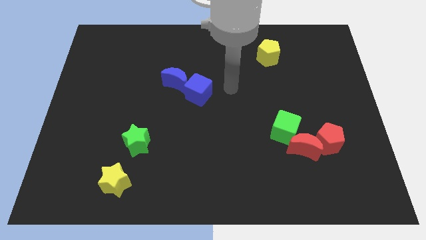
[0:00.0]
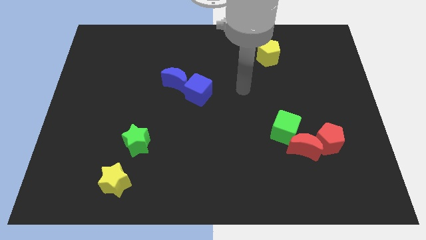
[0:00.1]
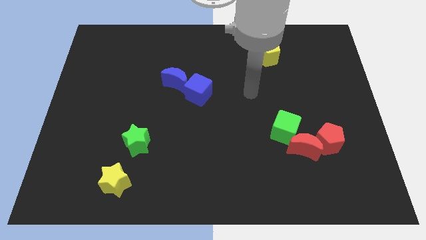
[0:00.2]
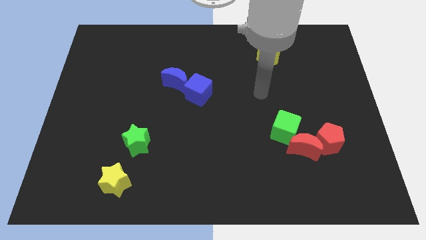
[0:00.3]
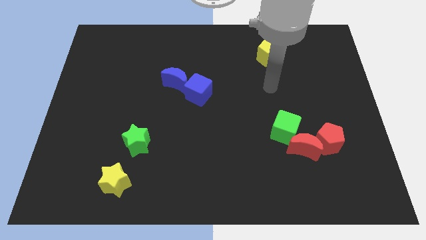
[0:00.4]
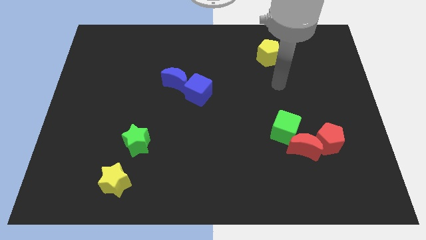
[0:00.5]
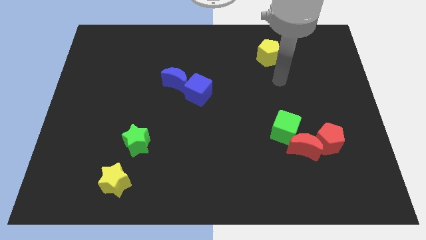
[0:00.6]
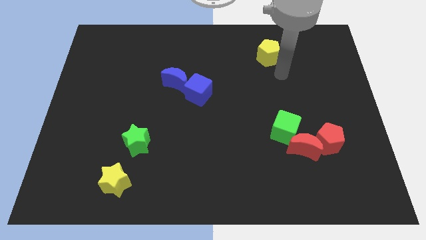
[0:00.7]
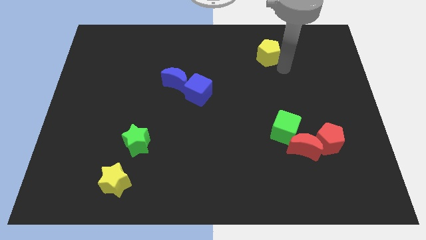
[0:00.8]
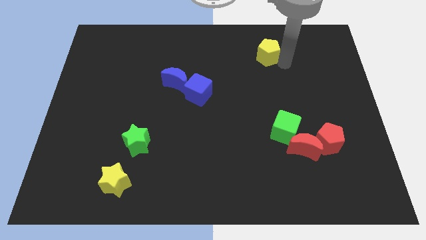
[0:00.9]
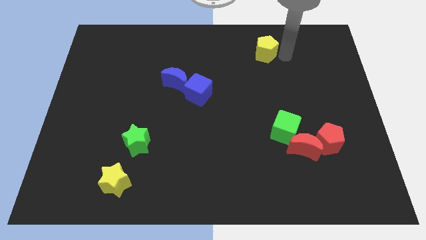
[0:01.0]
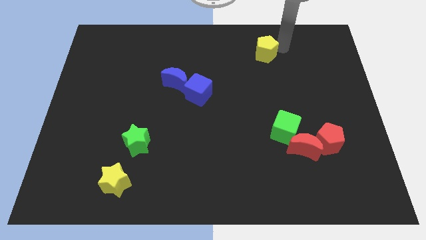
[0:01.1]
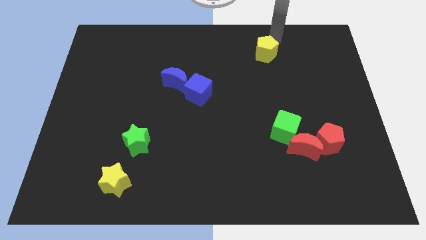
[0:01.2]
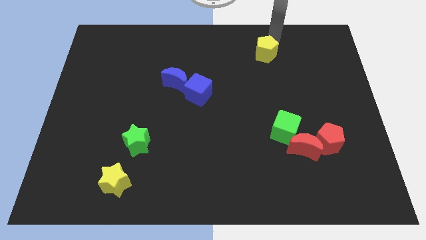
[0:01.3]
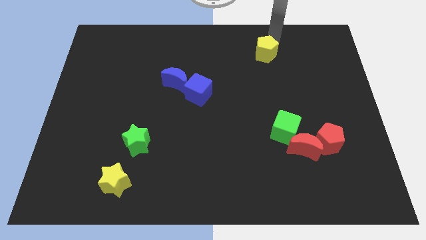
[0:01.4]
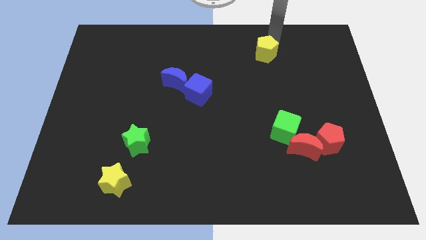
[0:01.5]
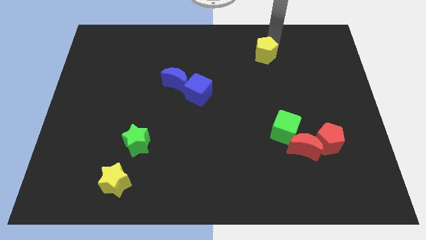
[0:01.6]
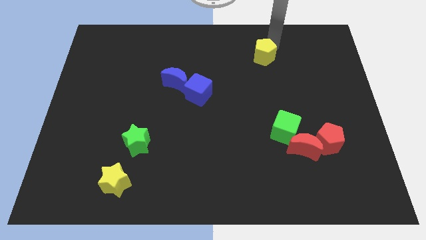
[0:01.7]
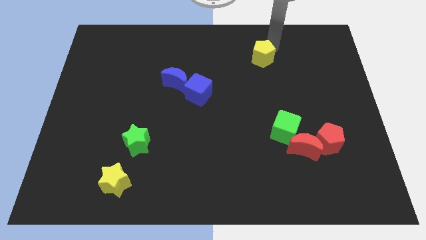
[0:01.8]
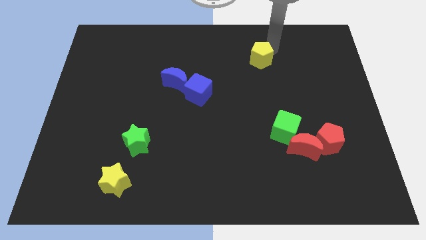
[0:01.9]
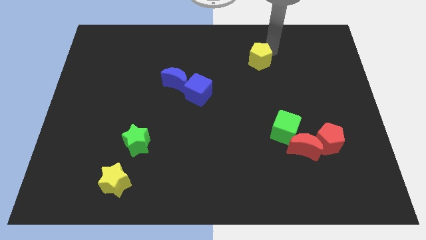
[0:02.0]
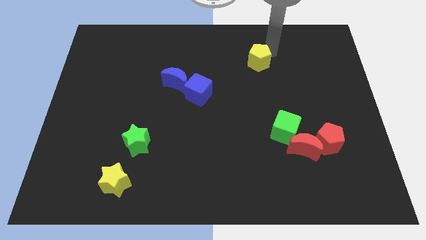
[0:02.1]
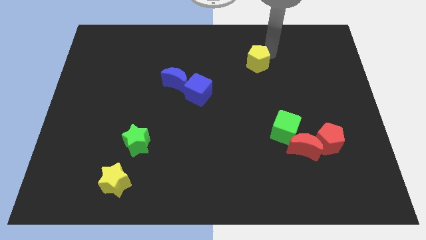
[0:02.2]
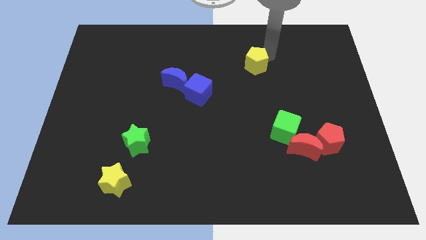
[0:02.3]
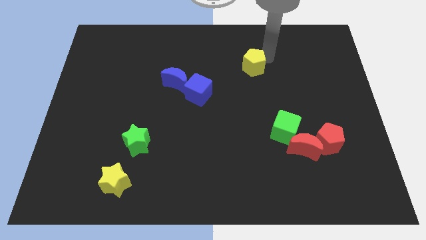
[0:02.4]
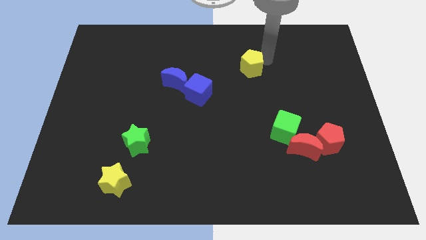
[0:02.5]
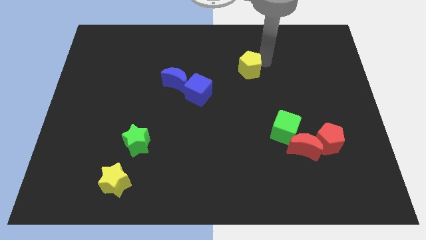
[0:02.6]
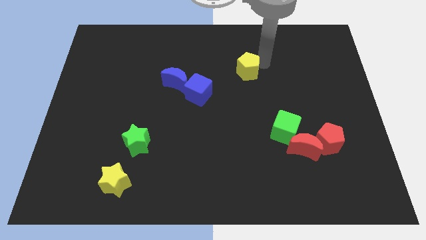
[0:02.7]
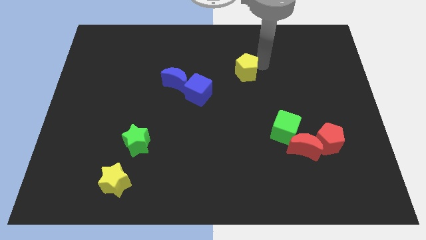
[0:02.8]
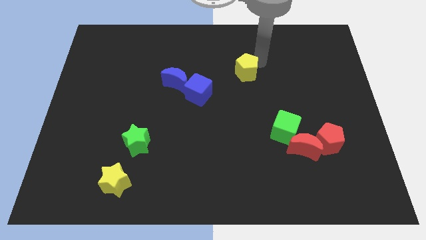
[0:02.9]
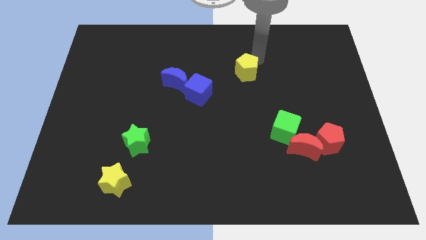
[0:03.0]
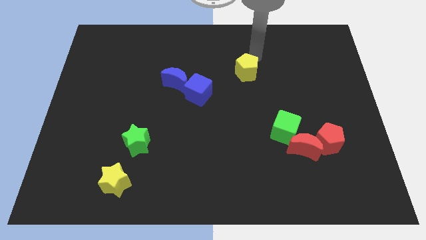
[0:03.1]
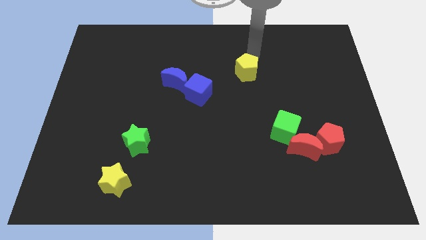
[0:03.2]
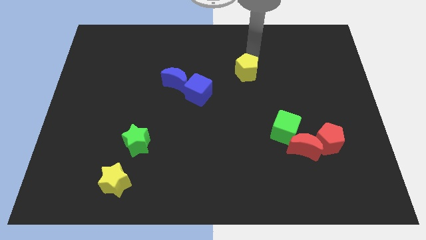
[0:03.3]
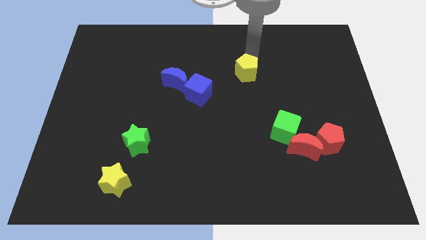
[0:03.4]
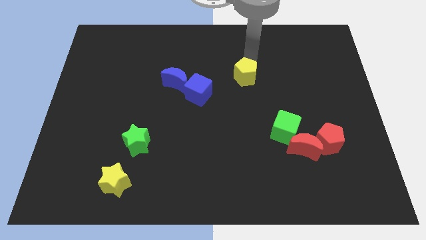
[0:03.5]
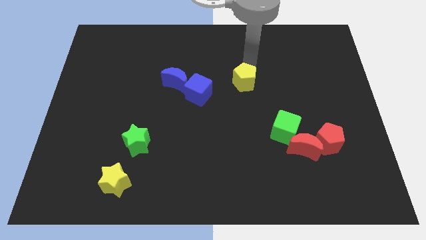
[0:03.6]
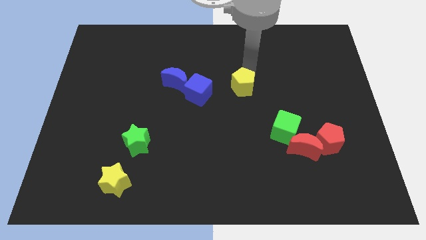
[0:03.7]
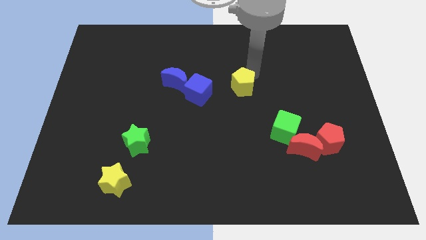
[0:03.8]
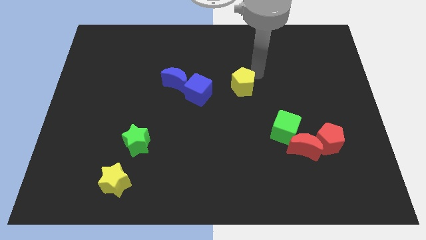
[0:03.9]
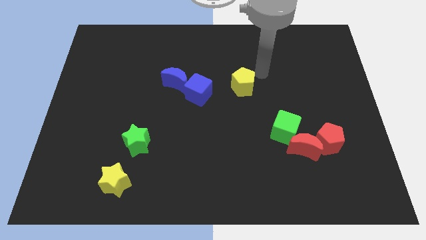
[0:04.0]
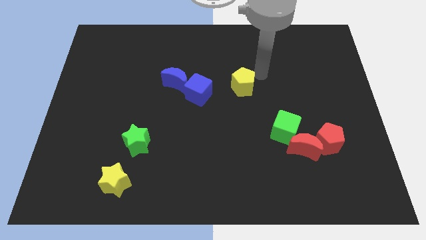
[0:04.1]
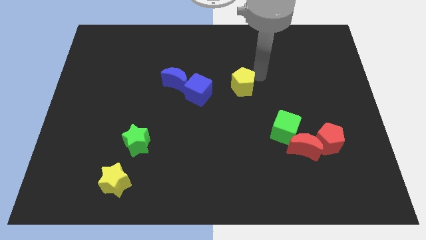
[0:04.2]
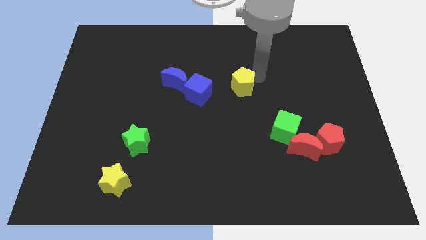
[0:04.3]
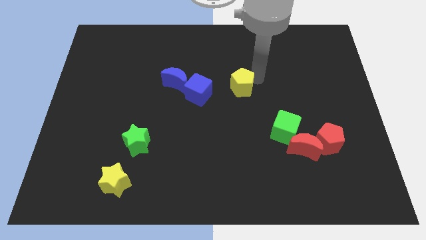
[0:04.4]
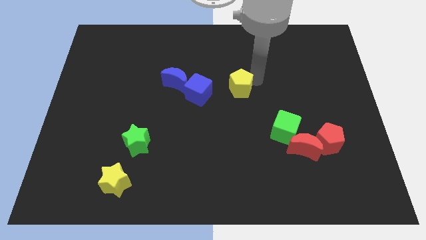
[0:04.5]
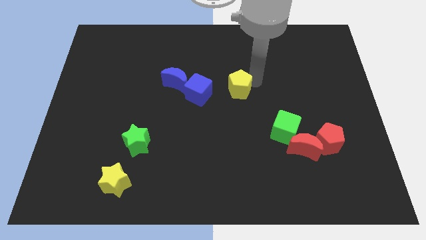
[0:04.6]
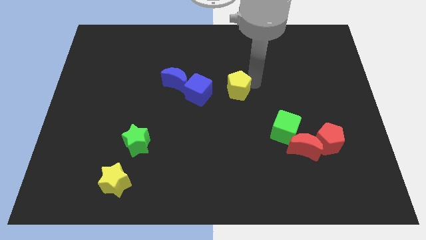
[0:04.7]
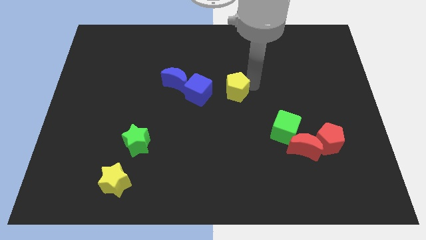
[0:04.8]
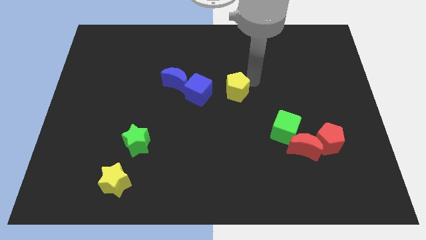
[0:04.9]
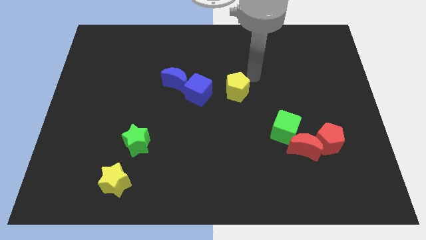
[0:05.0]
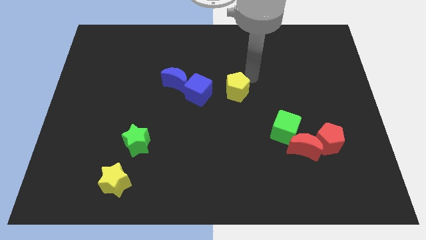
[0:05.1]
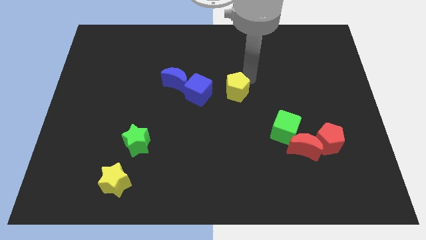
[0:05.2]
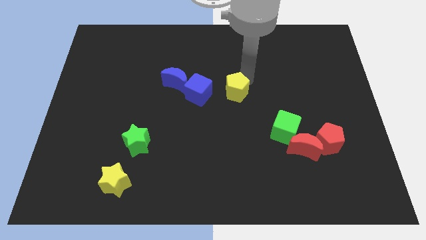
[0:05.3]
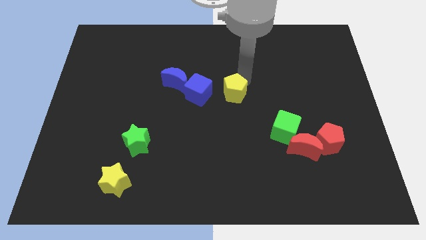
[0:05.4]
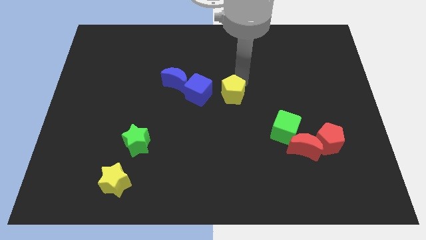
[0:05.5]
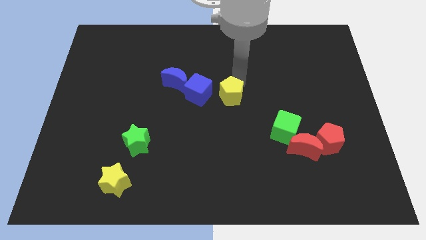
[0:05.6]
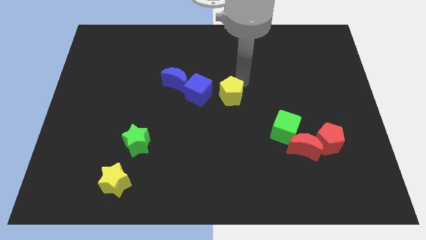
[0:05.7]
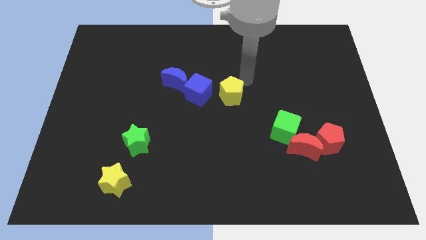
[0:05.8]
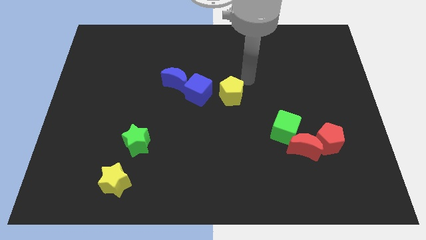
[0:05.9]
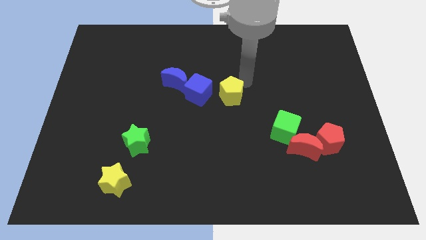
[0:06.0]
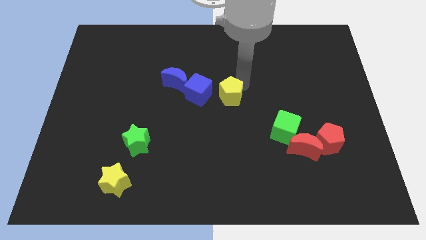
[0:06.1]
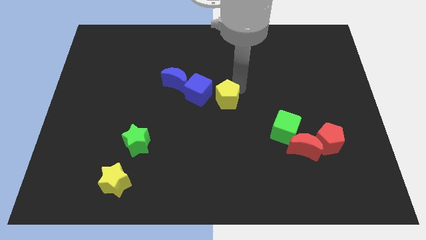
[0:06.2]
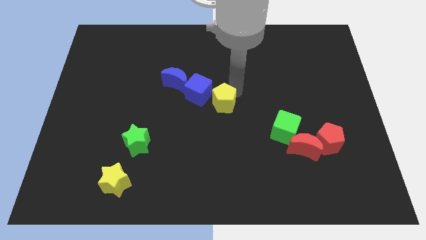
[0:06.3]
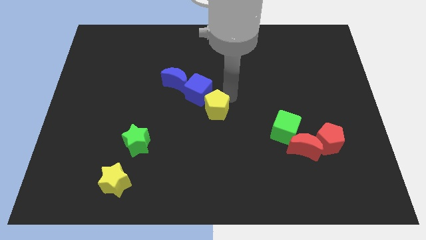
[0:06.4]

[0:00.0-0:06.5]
move the yellow pentagon to the bottom side of the blue cube
